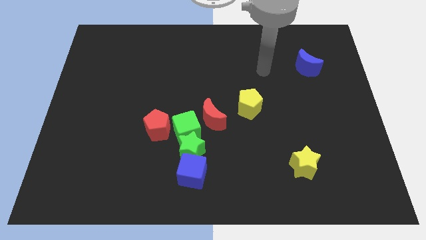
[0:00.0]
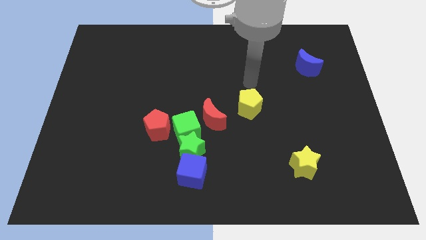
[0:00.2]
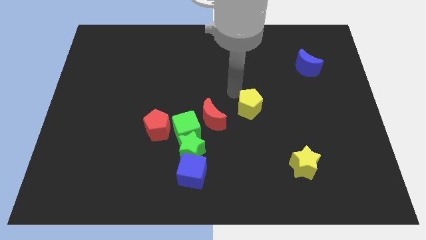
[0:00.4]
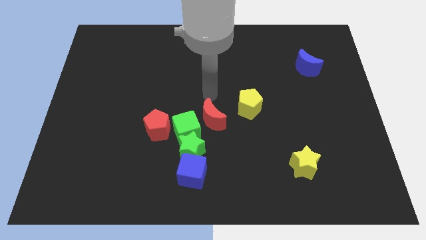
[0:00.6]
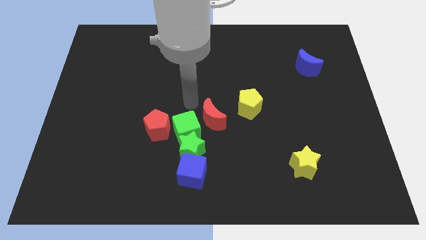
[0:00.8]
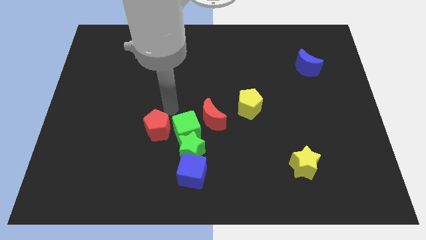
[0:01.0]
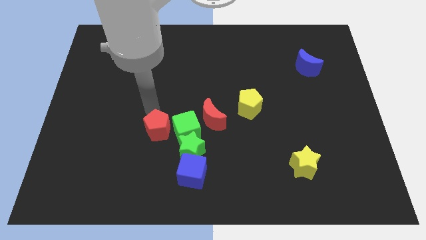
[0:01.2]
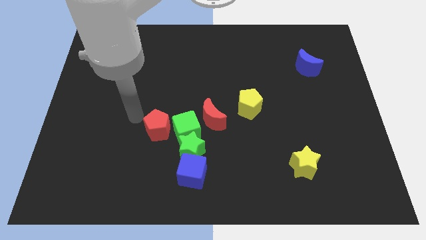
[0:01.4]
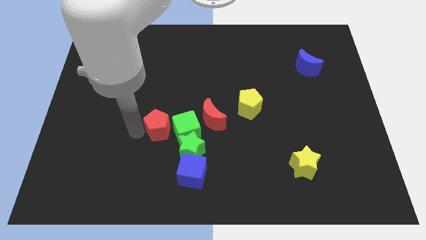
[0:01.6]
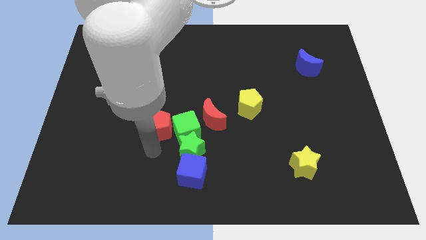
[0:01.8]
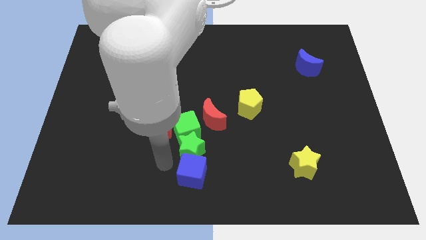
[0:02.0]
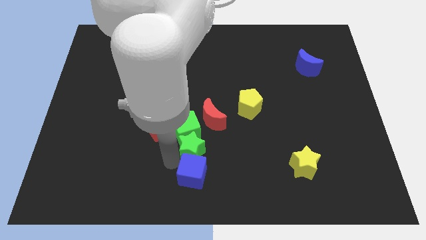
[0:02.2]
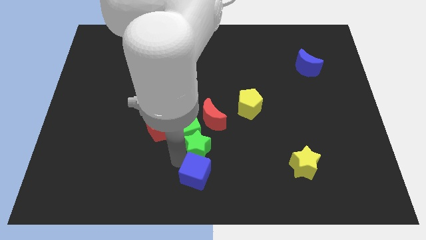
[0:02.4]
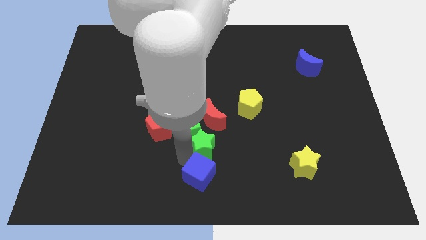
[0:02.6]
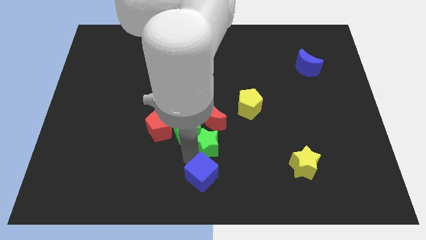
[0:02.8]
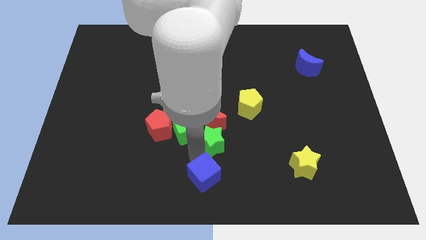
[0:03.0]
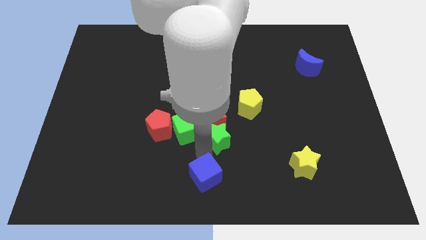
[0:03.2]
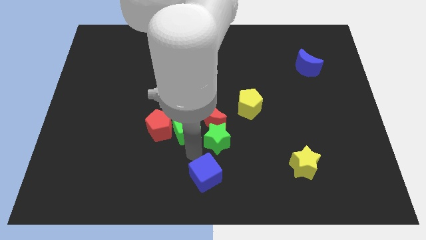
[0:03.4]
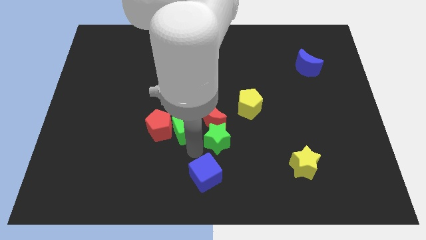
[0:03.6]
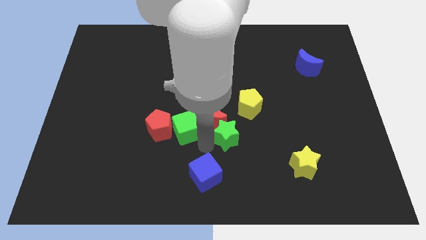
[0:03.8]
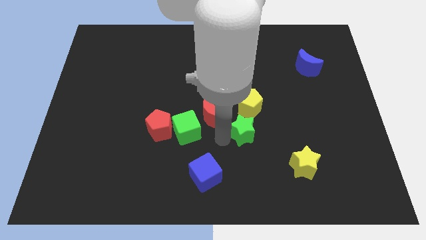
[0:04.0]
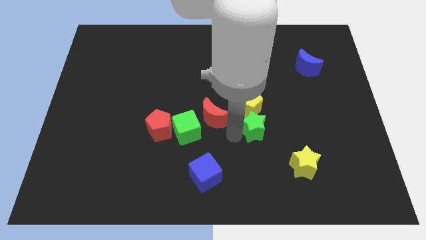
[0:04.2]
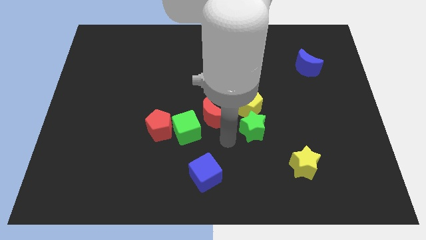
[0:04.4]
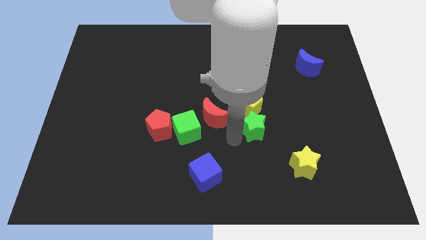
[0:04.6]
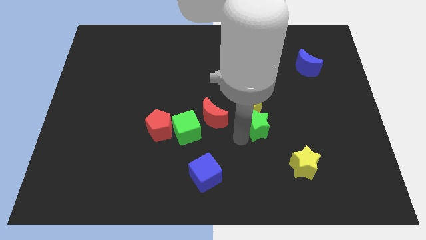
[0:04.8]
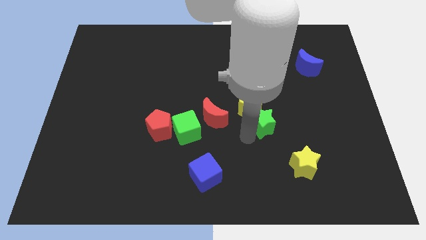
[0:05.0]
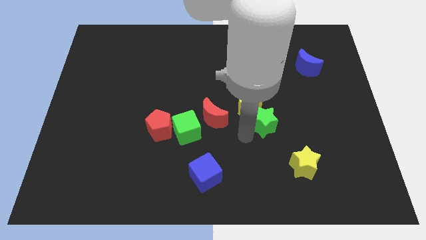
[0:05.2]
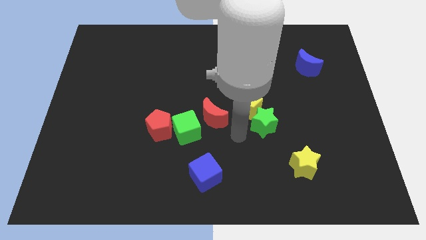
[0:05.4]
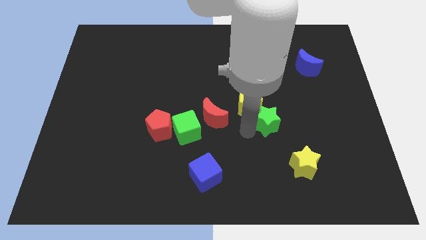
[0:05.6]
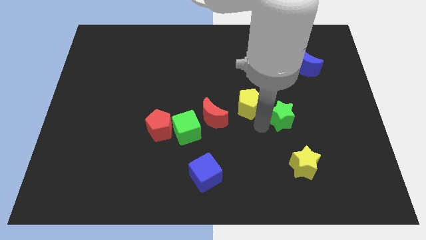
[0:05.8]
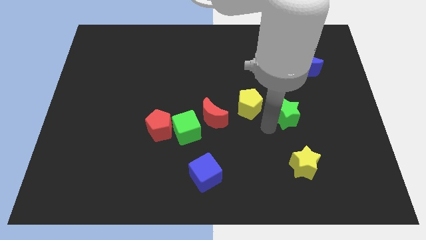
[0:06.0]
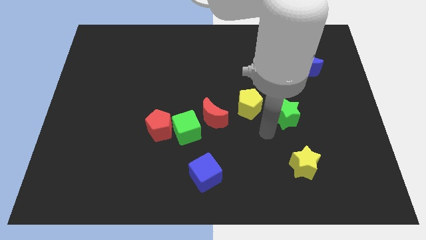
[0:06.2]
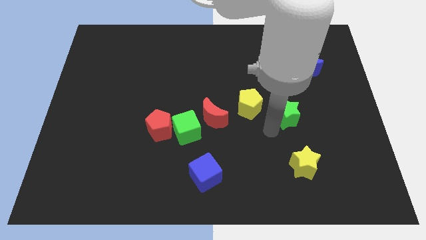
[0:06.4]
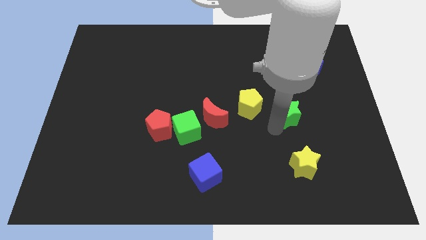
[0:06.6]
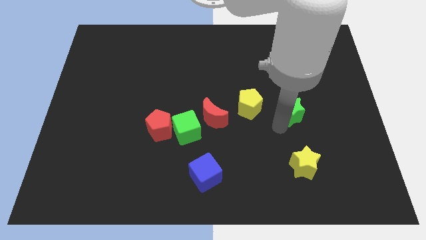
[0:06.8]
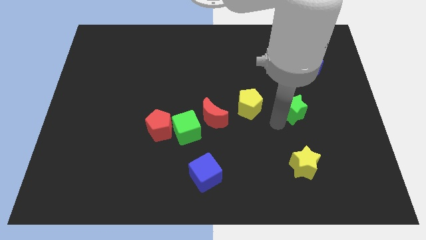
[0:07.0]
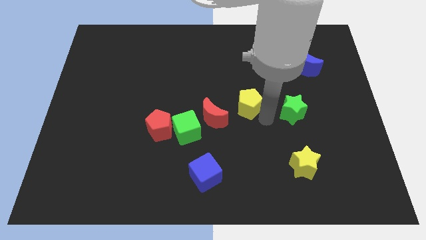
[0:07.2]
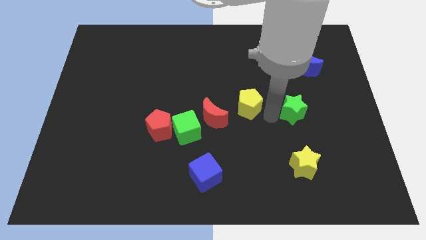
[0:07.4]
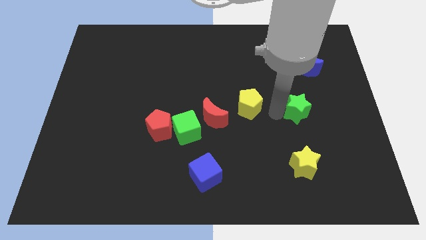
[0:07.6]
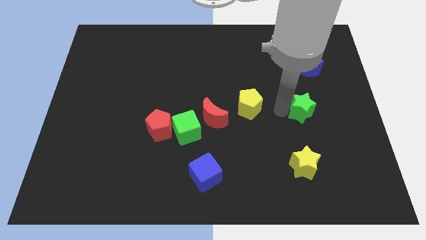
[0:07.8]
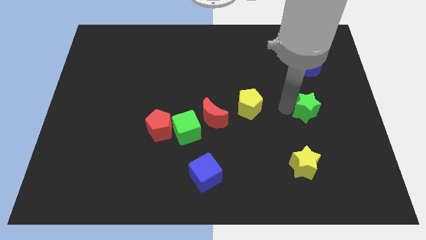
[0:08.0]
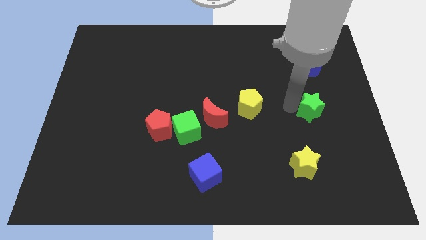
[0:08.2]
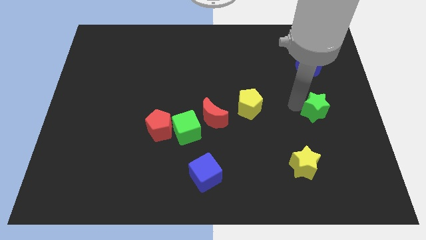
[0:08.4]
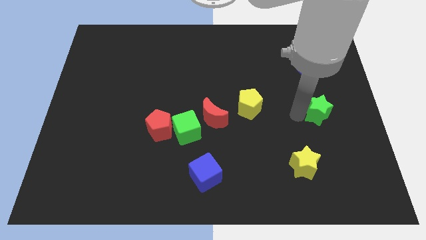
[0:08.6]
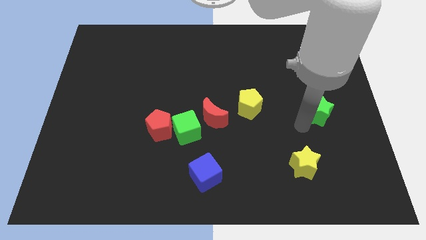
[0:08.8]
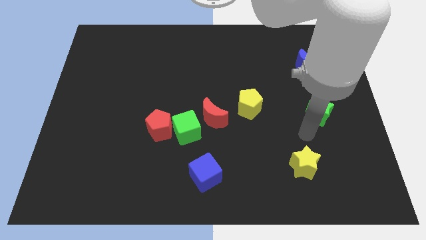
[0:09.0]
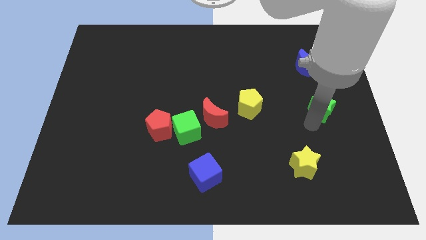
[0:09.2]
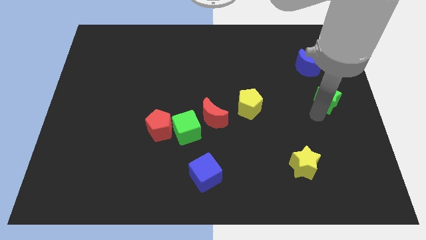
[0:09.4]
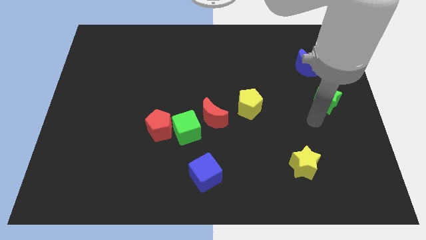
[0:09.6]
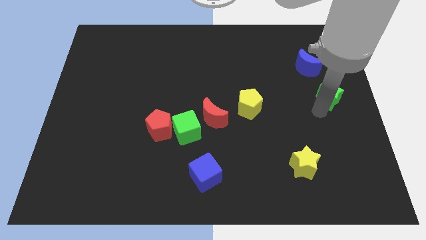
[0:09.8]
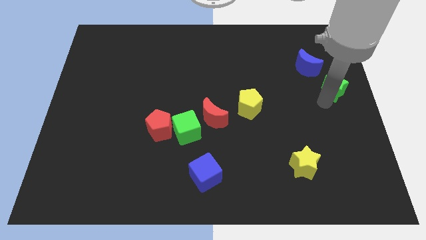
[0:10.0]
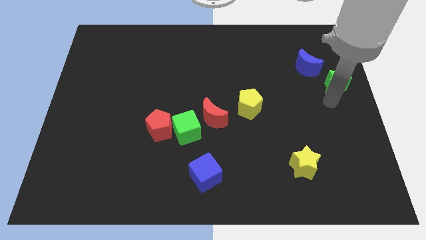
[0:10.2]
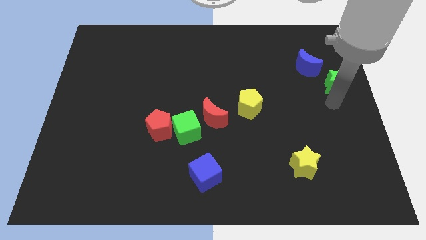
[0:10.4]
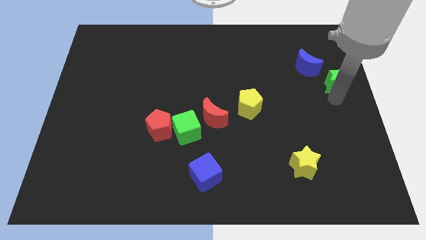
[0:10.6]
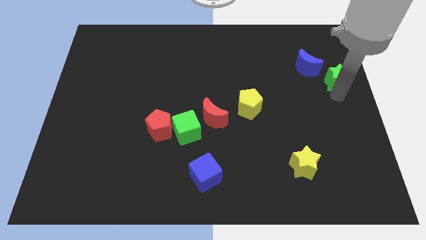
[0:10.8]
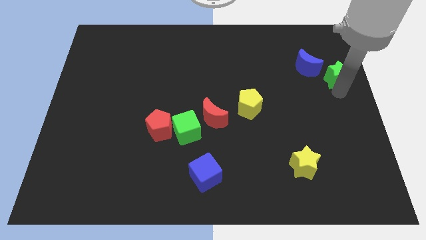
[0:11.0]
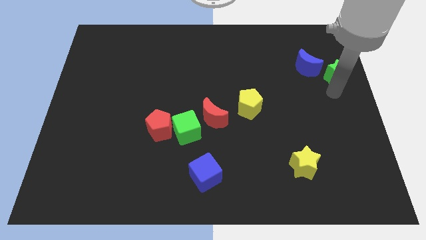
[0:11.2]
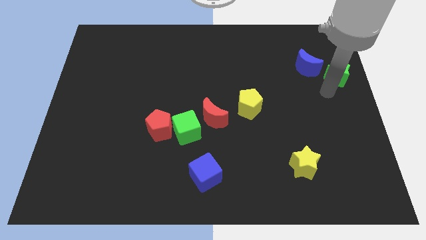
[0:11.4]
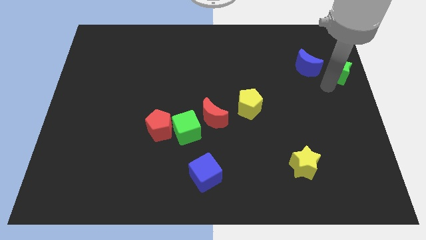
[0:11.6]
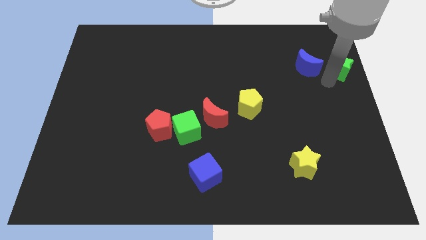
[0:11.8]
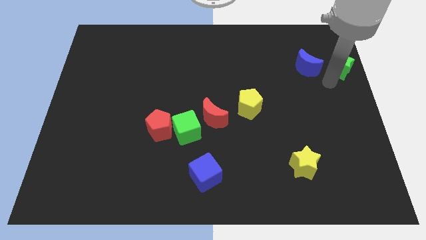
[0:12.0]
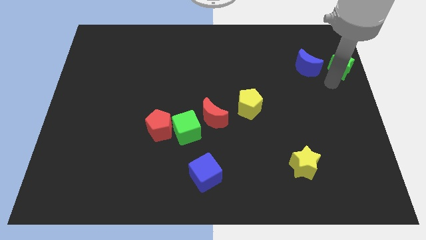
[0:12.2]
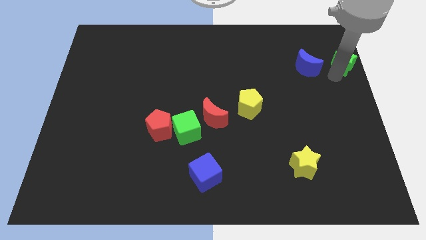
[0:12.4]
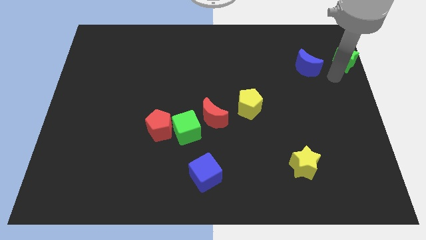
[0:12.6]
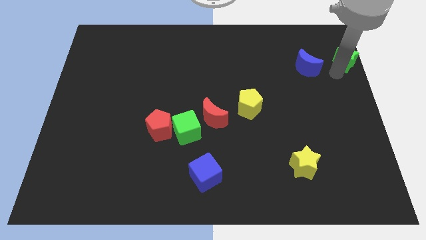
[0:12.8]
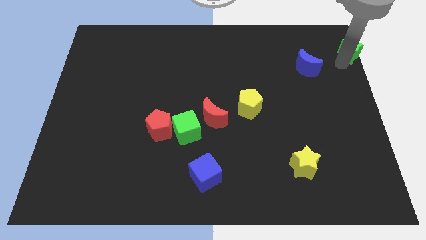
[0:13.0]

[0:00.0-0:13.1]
put the green star to the top right

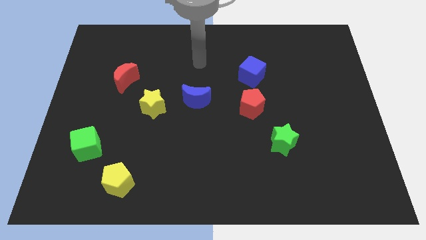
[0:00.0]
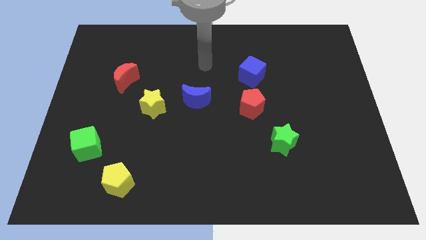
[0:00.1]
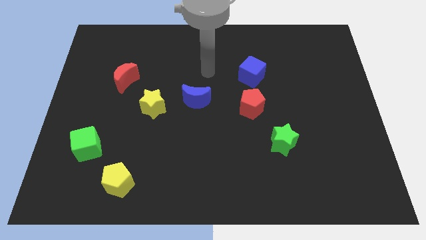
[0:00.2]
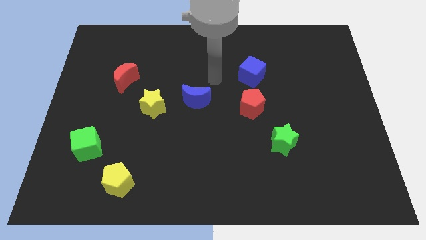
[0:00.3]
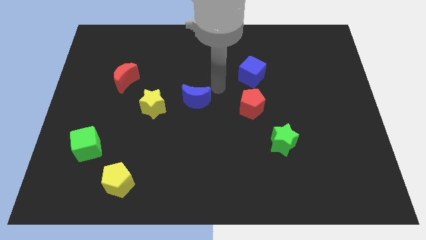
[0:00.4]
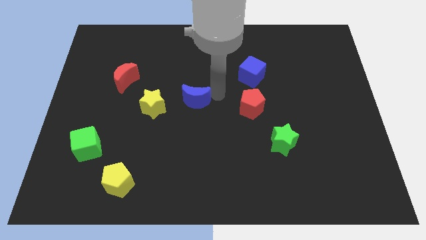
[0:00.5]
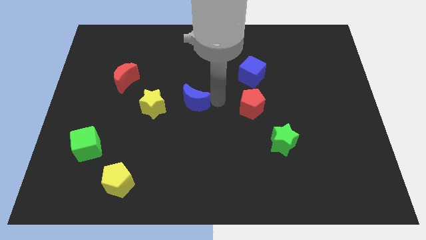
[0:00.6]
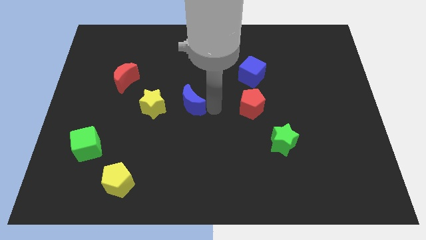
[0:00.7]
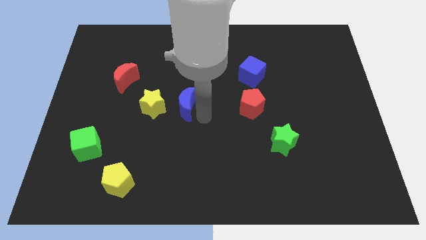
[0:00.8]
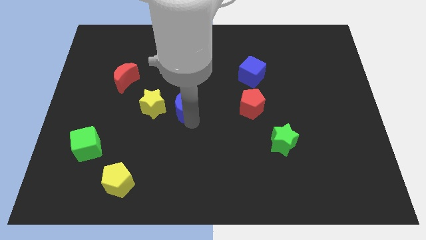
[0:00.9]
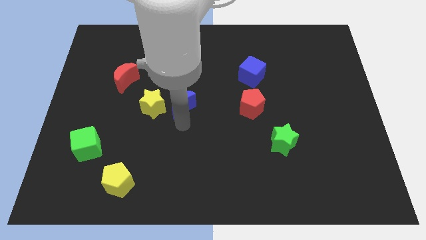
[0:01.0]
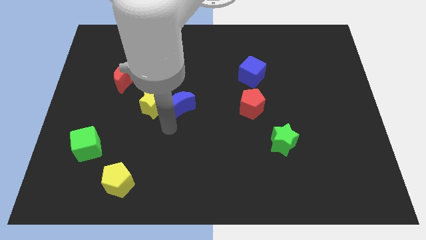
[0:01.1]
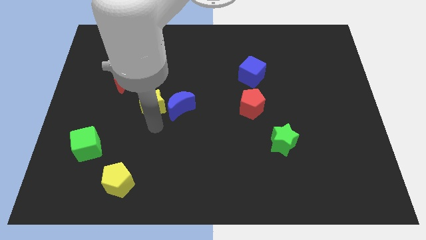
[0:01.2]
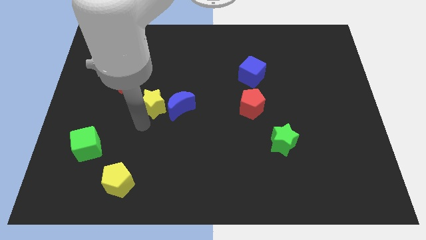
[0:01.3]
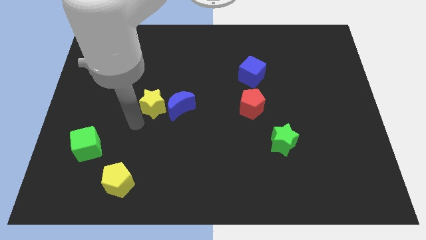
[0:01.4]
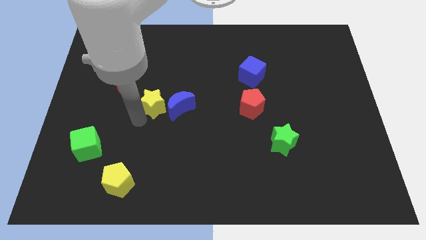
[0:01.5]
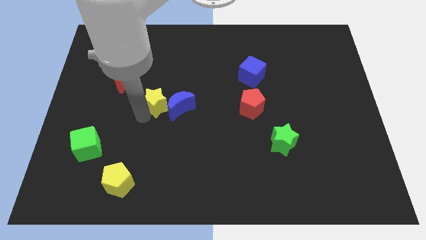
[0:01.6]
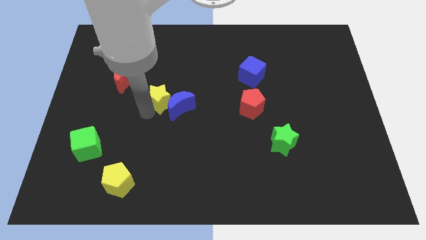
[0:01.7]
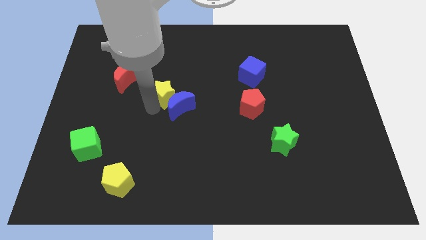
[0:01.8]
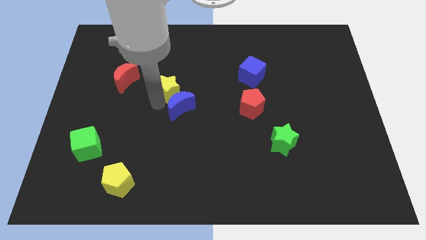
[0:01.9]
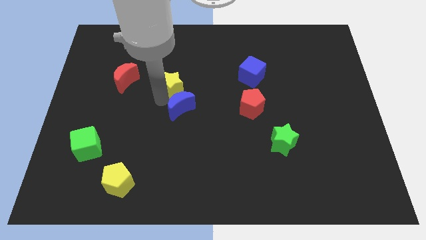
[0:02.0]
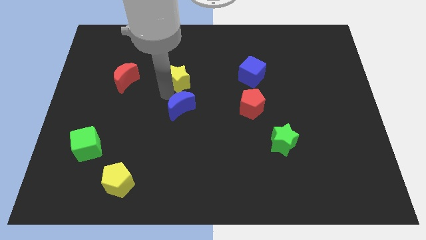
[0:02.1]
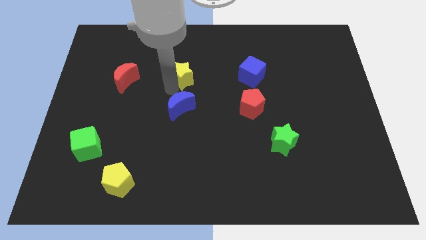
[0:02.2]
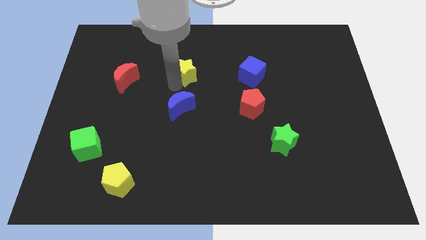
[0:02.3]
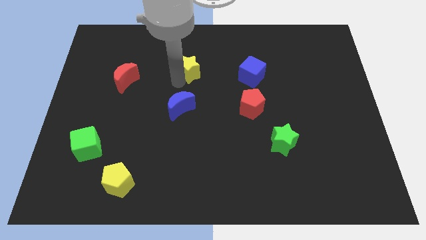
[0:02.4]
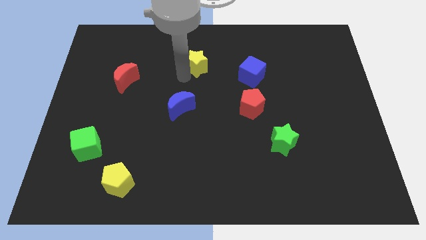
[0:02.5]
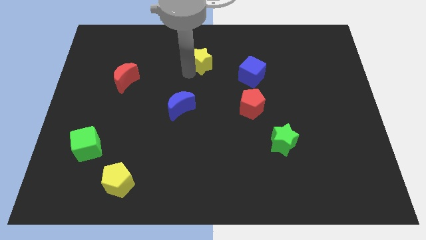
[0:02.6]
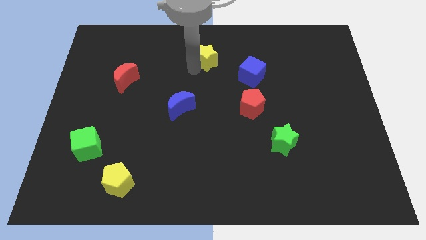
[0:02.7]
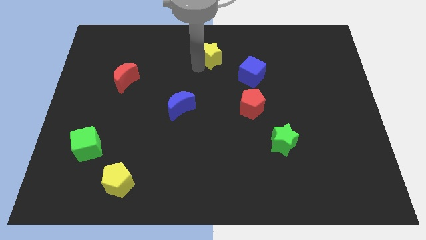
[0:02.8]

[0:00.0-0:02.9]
push the yellow star to the top side
